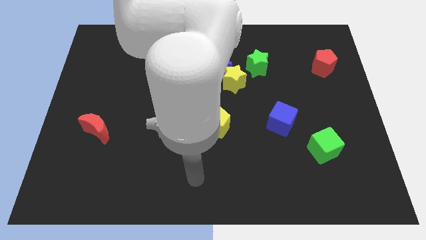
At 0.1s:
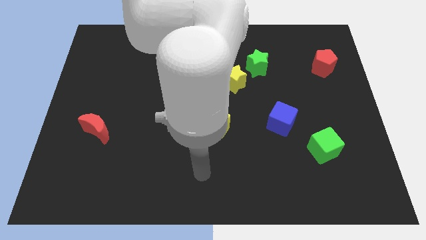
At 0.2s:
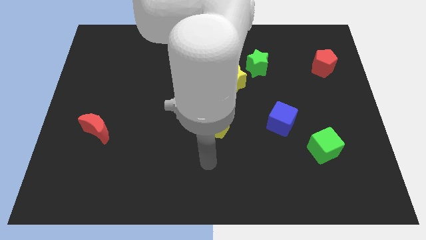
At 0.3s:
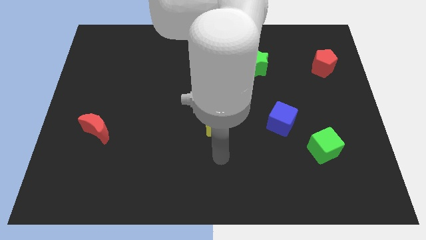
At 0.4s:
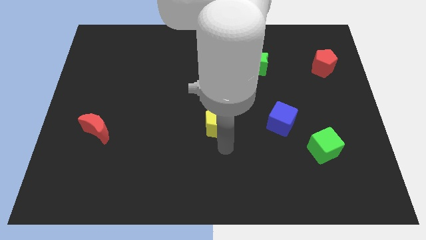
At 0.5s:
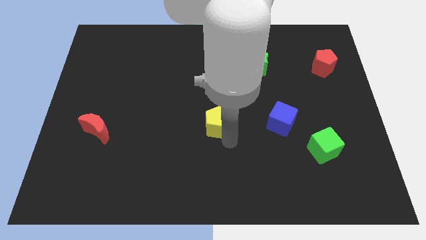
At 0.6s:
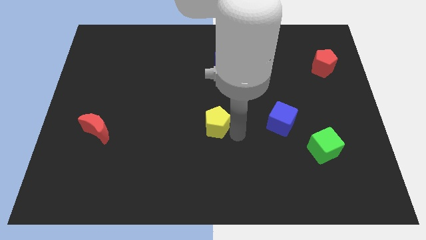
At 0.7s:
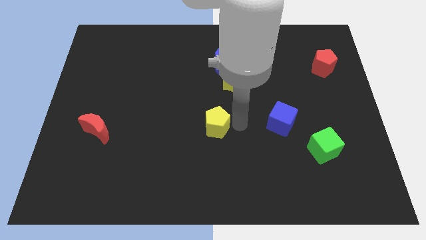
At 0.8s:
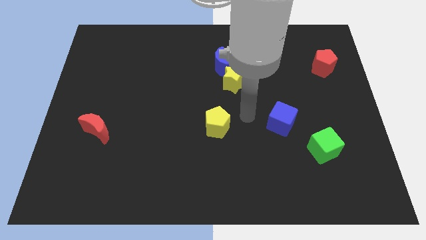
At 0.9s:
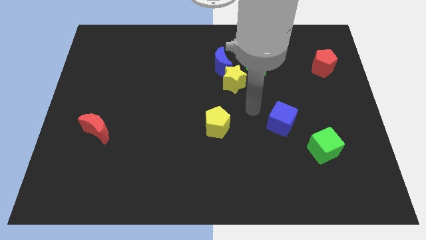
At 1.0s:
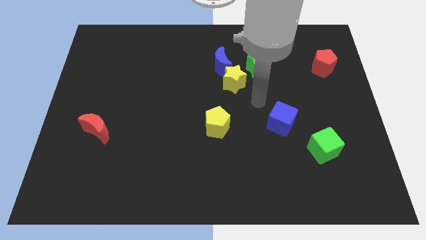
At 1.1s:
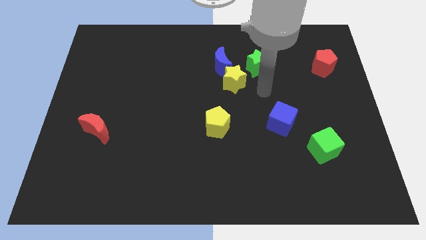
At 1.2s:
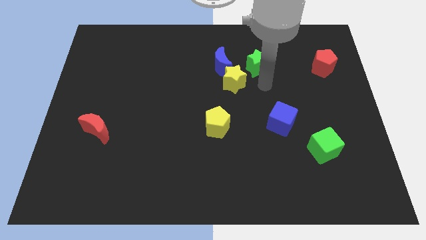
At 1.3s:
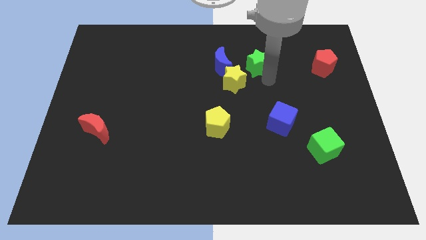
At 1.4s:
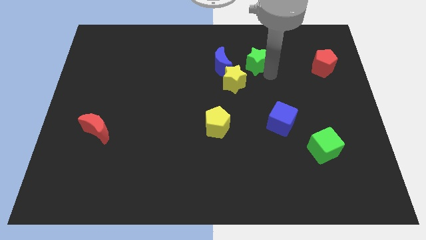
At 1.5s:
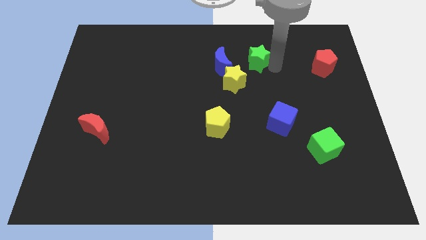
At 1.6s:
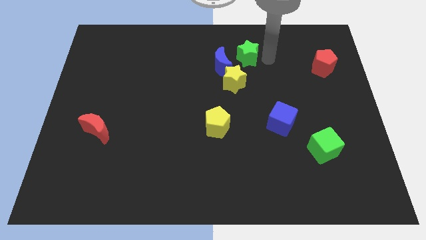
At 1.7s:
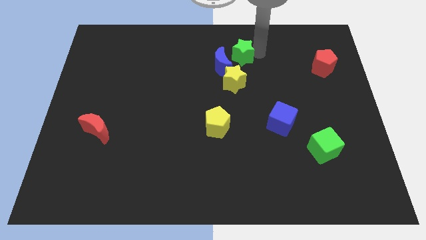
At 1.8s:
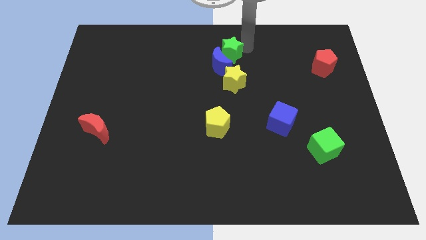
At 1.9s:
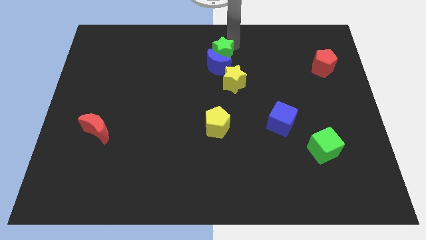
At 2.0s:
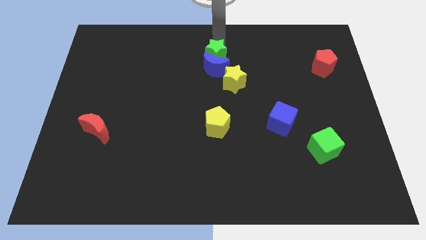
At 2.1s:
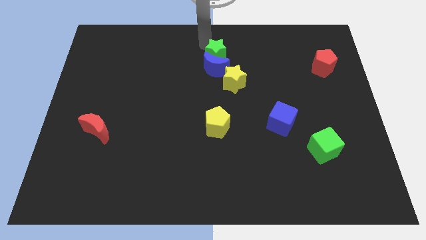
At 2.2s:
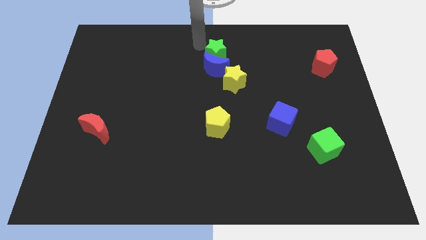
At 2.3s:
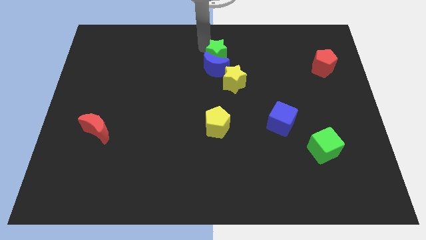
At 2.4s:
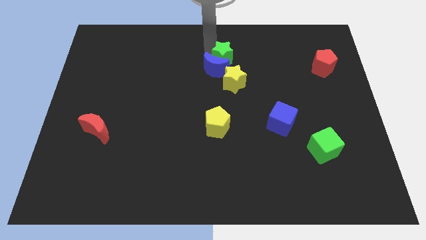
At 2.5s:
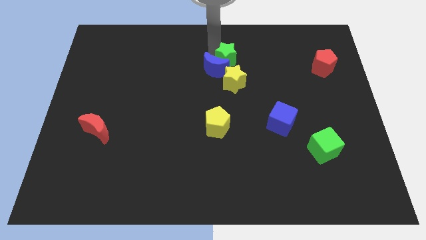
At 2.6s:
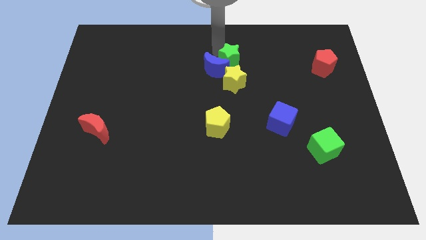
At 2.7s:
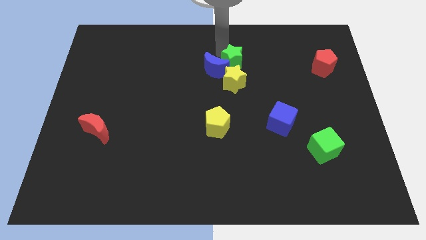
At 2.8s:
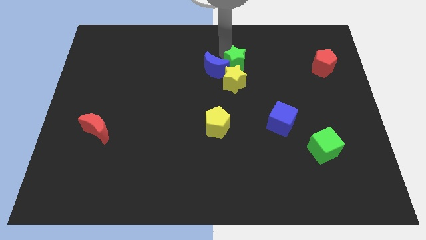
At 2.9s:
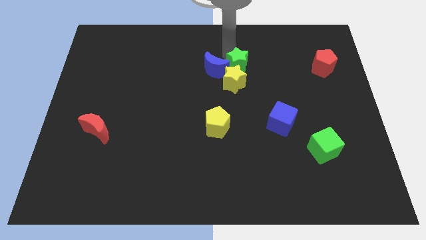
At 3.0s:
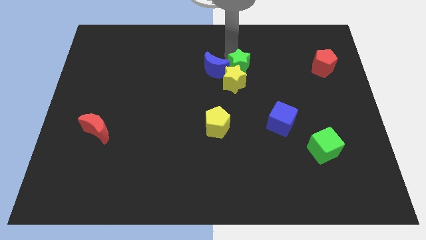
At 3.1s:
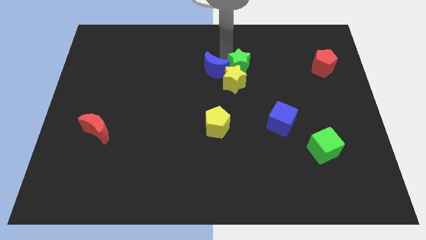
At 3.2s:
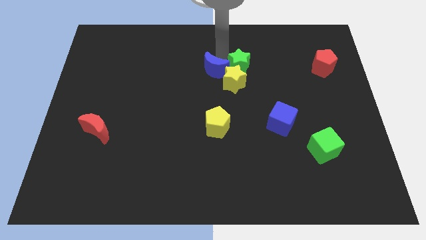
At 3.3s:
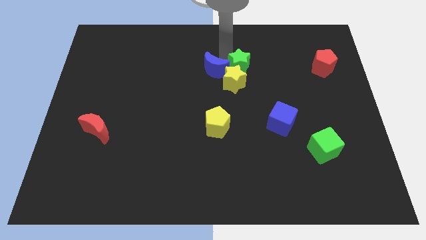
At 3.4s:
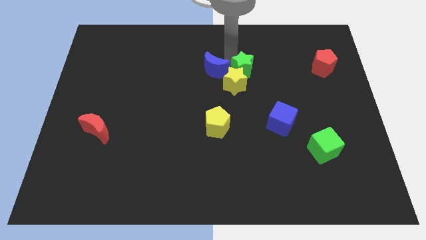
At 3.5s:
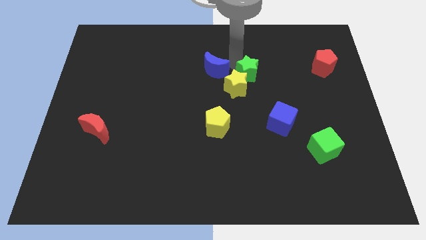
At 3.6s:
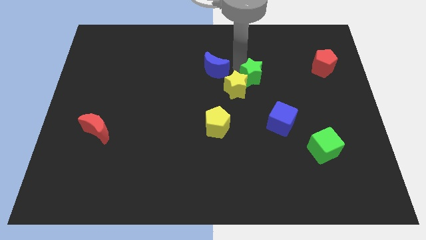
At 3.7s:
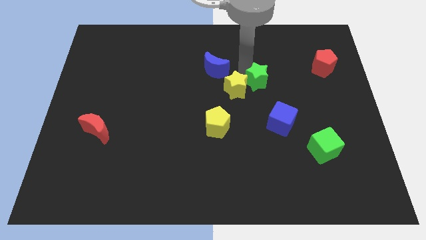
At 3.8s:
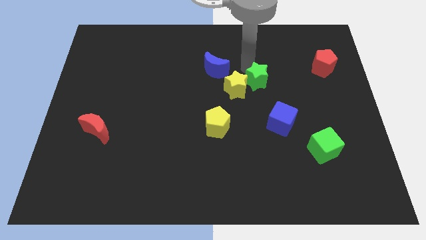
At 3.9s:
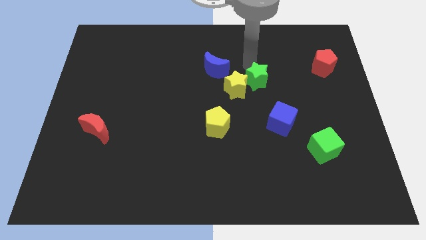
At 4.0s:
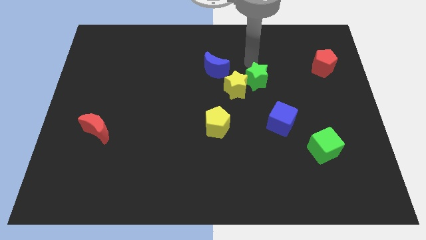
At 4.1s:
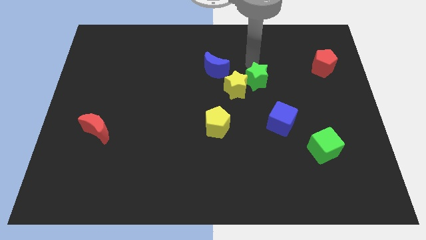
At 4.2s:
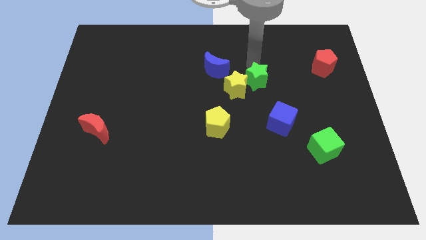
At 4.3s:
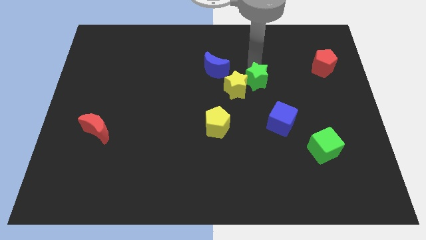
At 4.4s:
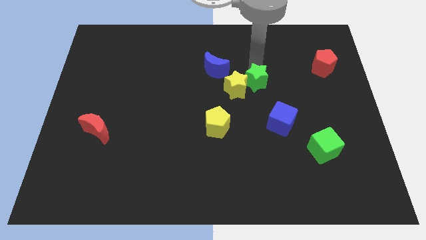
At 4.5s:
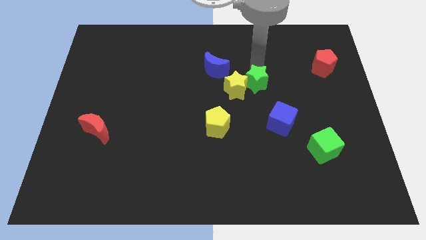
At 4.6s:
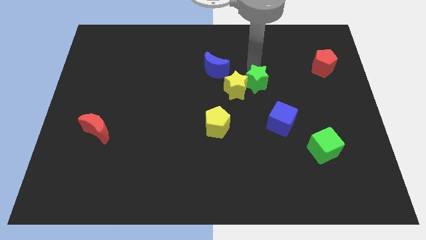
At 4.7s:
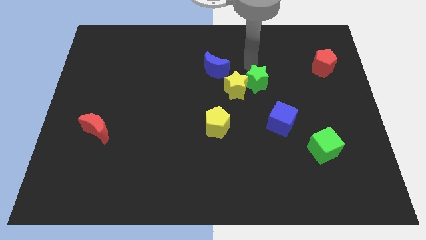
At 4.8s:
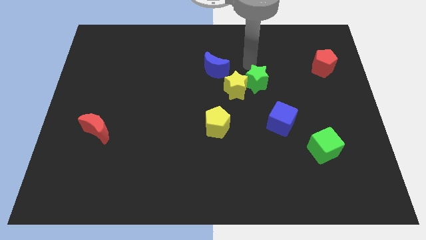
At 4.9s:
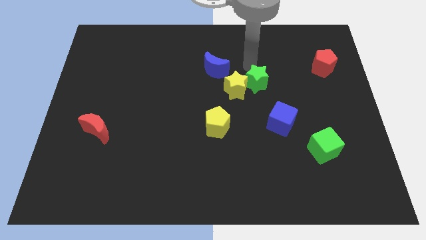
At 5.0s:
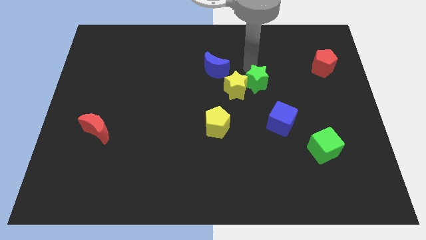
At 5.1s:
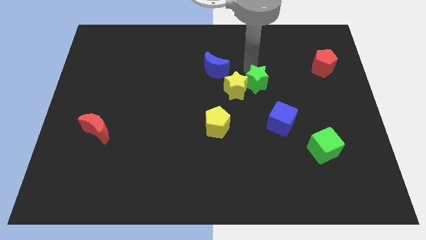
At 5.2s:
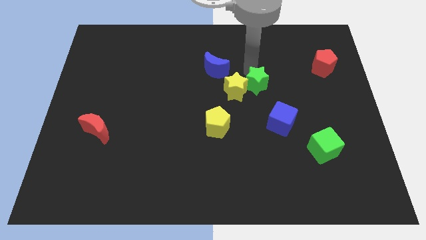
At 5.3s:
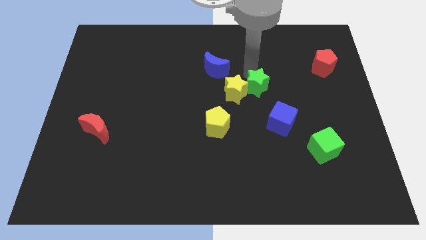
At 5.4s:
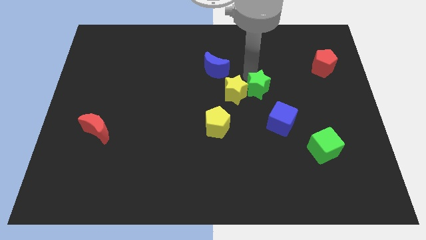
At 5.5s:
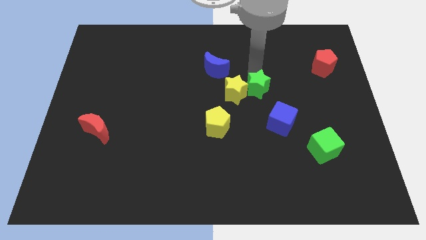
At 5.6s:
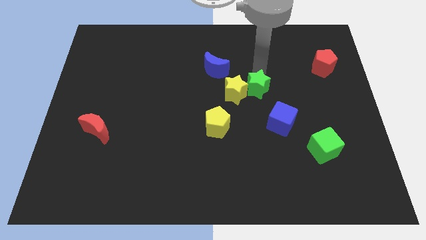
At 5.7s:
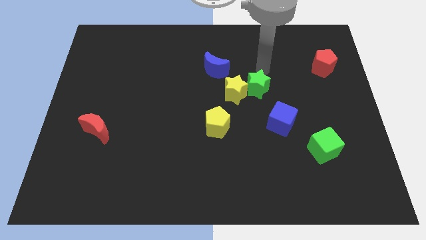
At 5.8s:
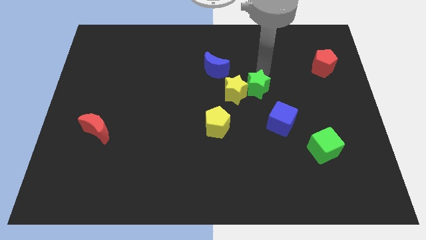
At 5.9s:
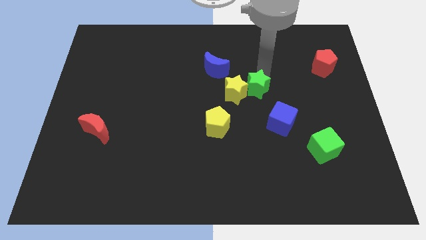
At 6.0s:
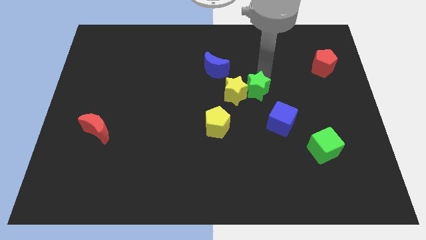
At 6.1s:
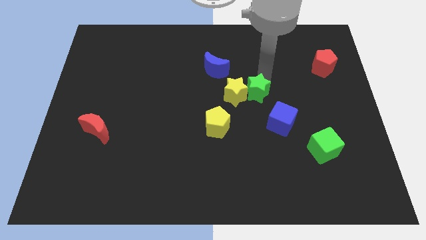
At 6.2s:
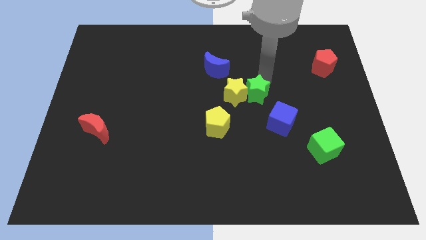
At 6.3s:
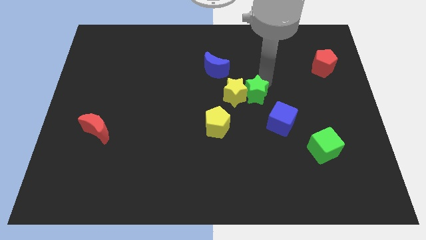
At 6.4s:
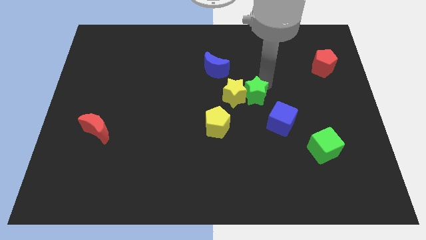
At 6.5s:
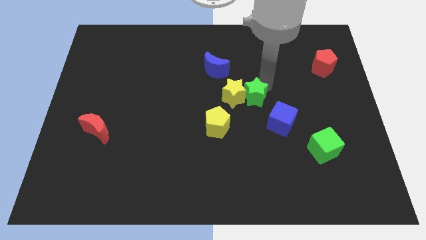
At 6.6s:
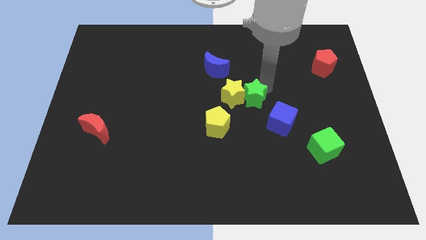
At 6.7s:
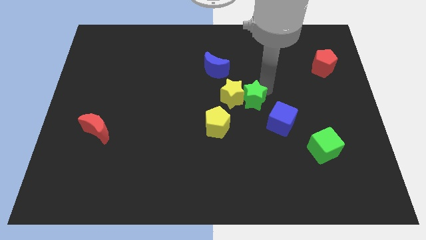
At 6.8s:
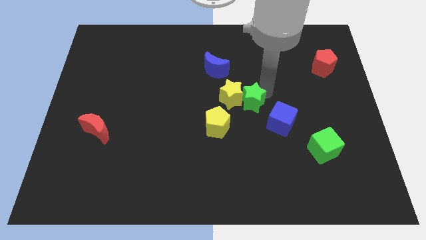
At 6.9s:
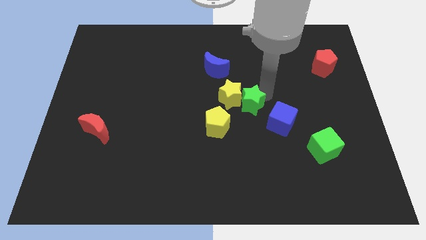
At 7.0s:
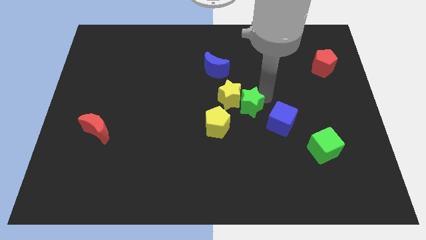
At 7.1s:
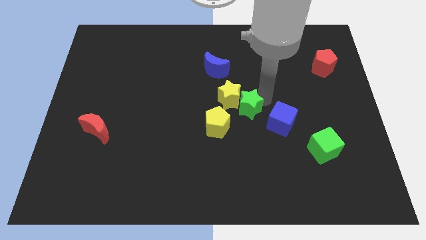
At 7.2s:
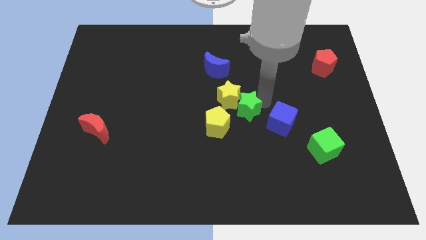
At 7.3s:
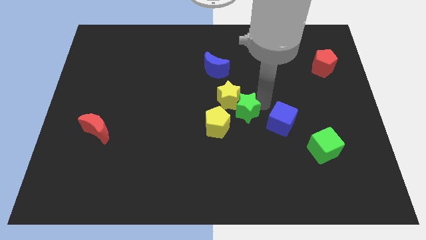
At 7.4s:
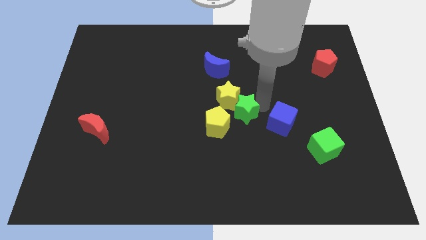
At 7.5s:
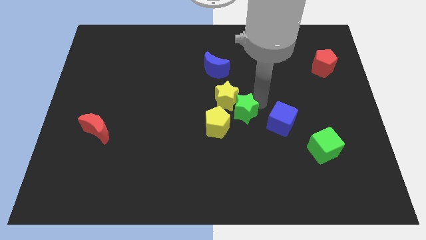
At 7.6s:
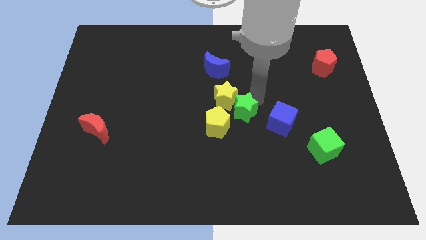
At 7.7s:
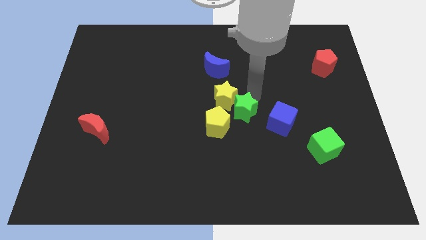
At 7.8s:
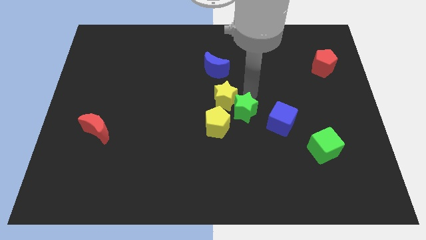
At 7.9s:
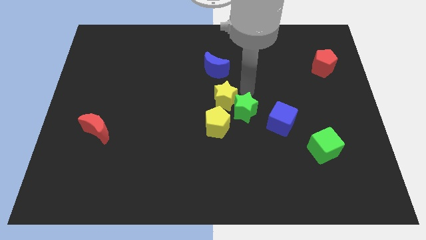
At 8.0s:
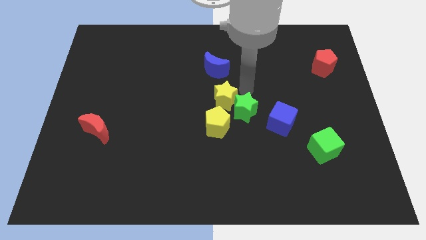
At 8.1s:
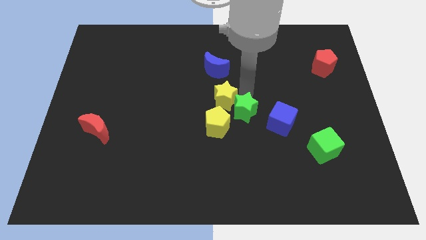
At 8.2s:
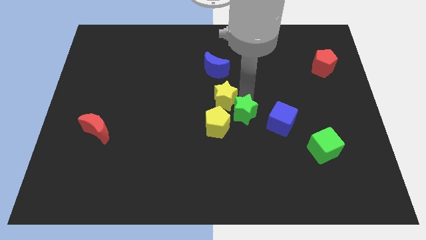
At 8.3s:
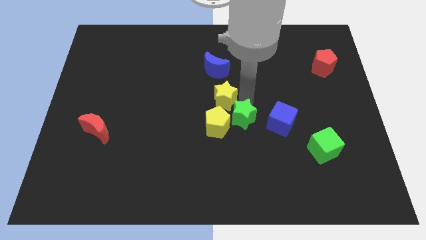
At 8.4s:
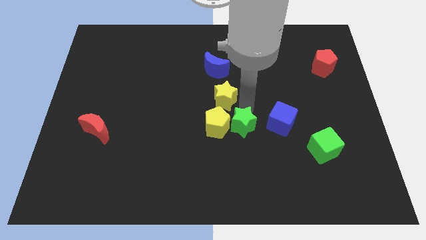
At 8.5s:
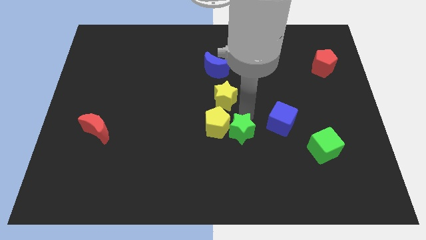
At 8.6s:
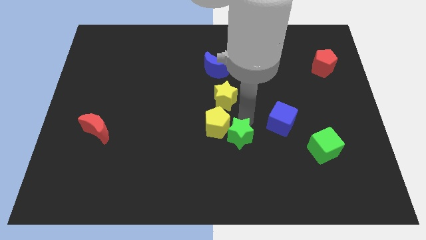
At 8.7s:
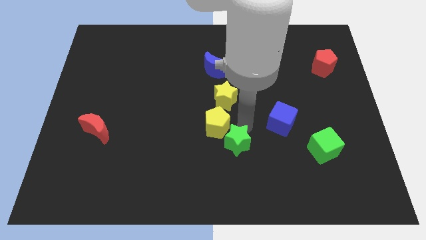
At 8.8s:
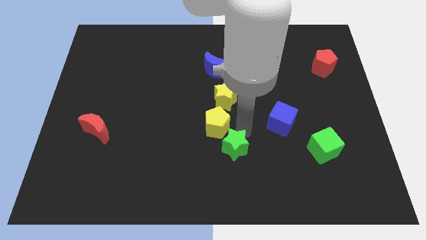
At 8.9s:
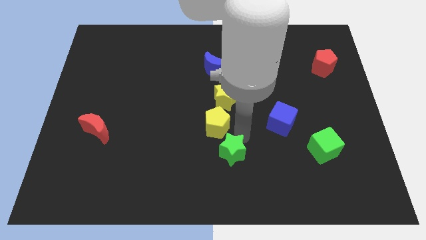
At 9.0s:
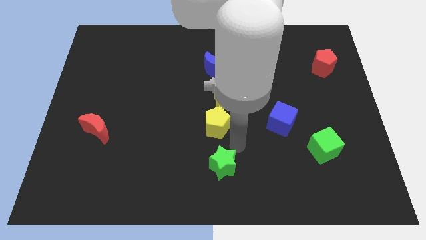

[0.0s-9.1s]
move the green star to the bottom side
